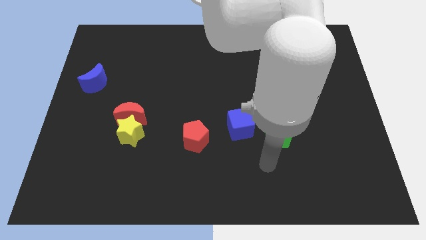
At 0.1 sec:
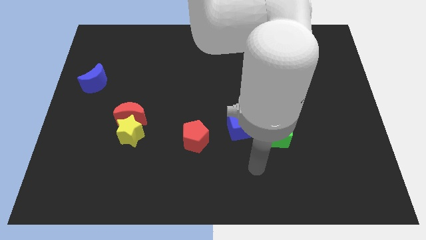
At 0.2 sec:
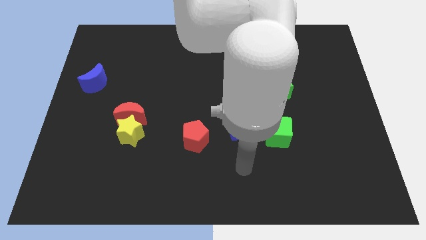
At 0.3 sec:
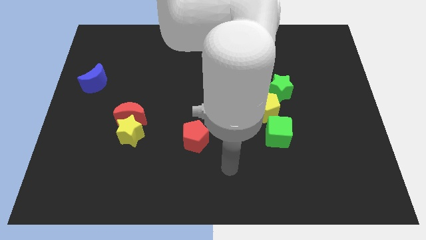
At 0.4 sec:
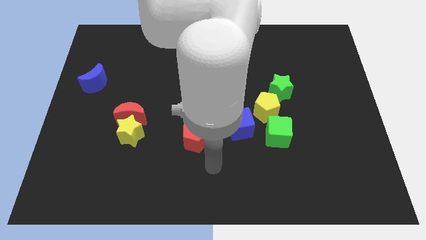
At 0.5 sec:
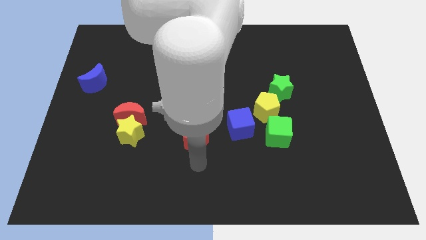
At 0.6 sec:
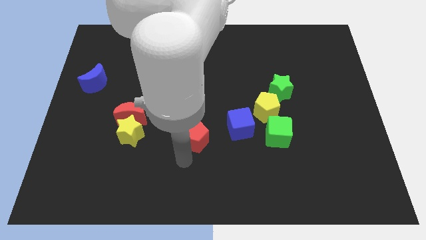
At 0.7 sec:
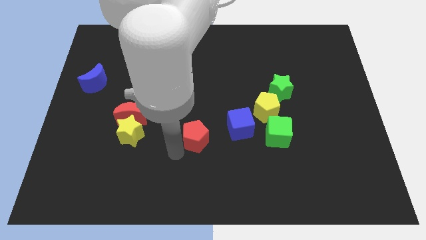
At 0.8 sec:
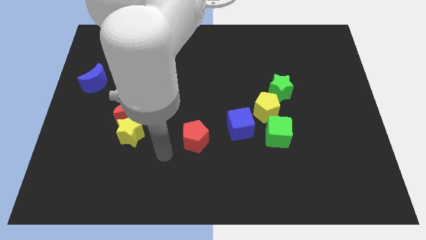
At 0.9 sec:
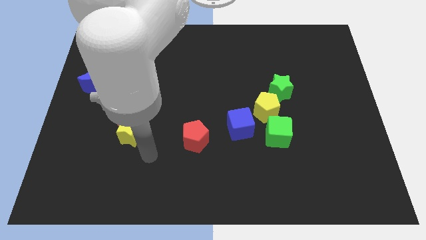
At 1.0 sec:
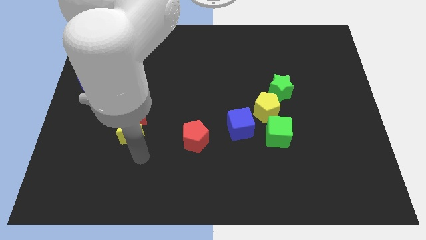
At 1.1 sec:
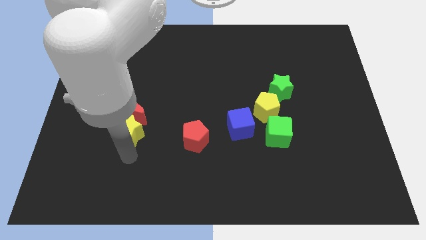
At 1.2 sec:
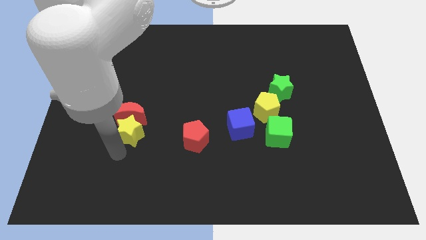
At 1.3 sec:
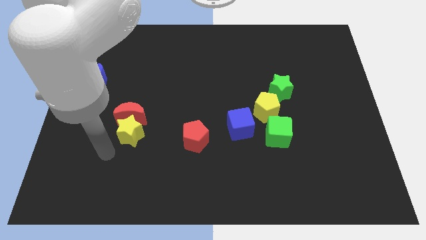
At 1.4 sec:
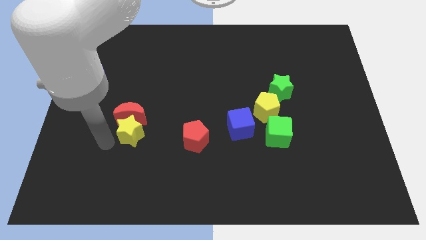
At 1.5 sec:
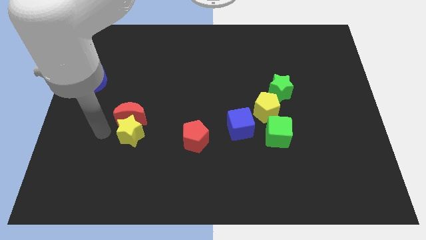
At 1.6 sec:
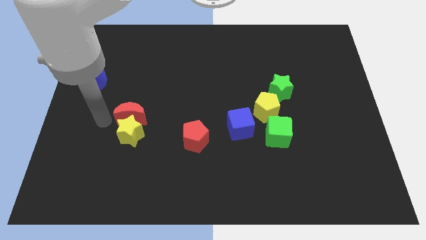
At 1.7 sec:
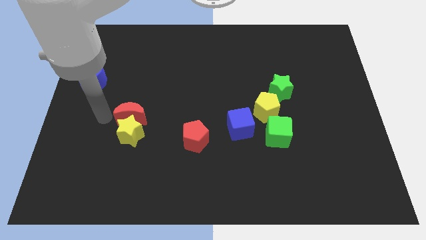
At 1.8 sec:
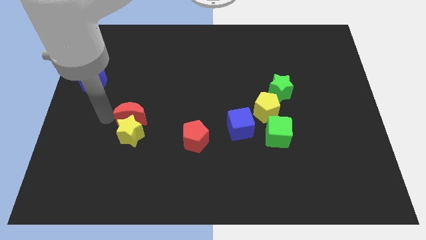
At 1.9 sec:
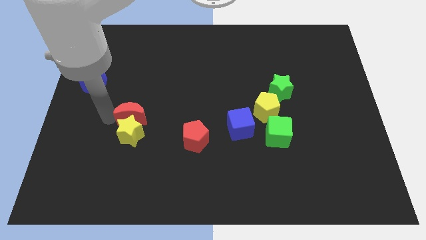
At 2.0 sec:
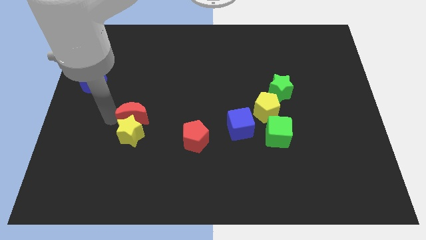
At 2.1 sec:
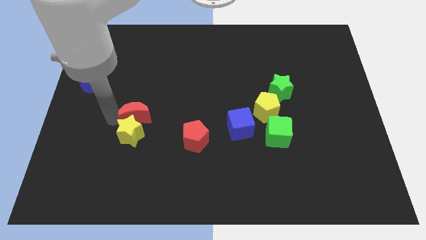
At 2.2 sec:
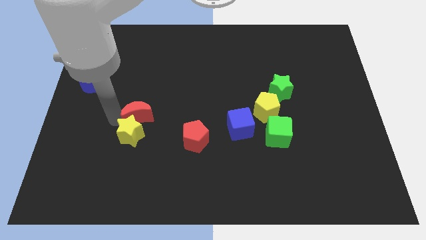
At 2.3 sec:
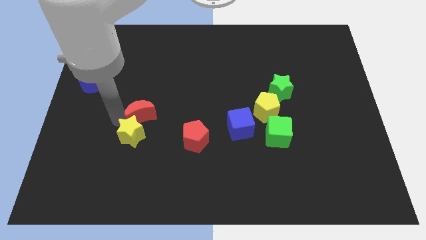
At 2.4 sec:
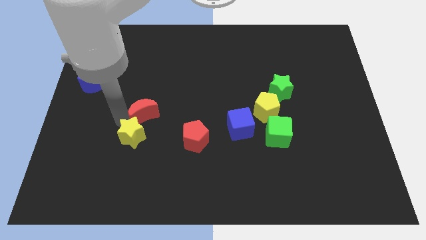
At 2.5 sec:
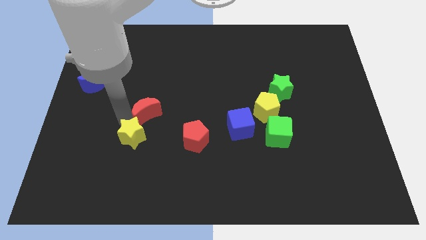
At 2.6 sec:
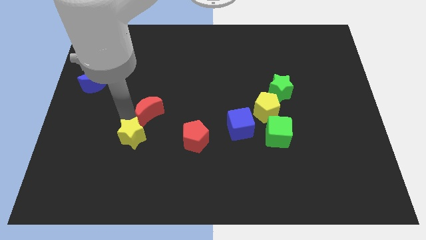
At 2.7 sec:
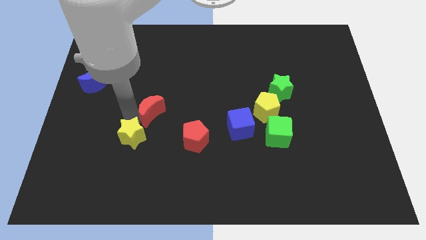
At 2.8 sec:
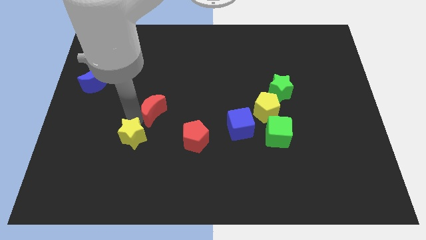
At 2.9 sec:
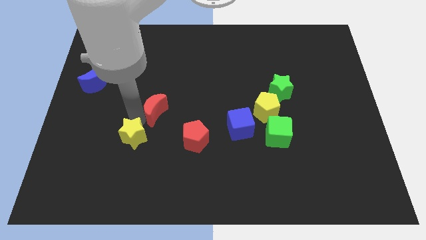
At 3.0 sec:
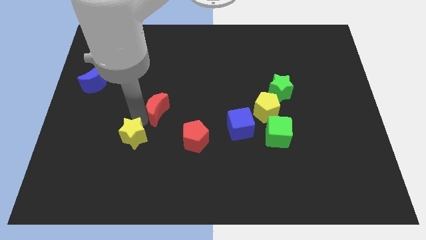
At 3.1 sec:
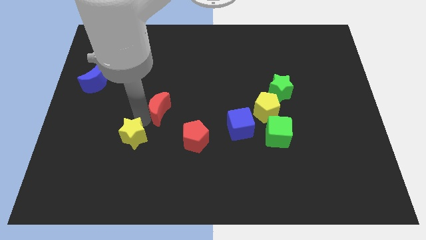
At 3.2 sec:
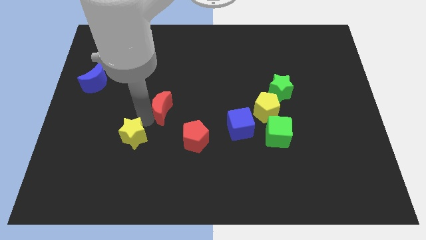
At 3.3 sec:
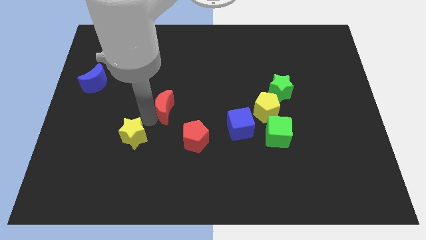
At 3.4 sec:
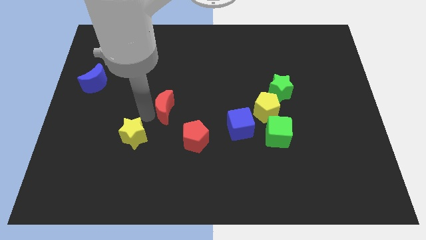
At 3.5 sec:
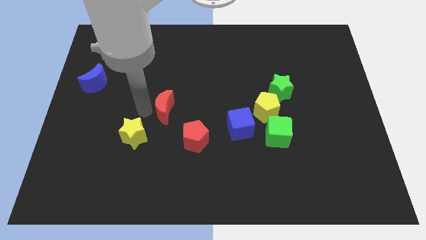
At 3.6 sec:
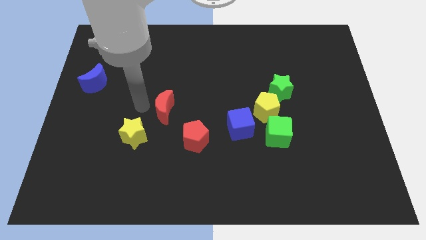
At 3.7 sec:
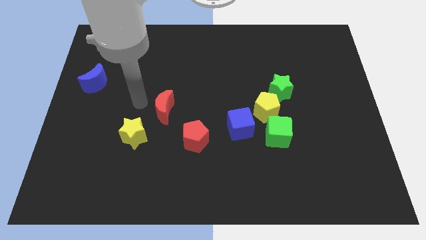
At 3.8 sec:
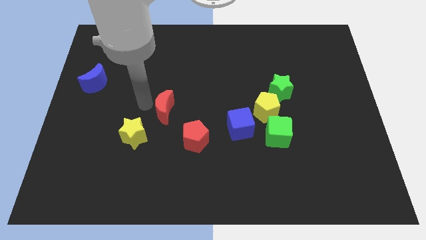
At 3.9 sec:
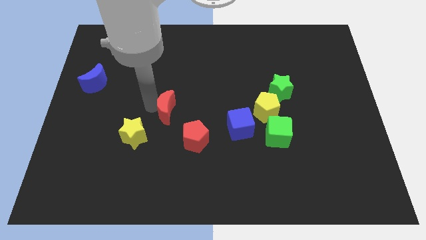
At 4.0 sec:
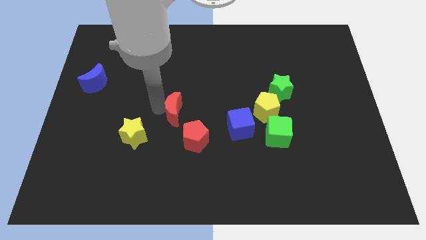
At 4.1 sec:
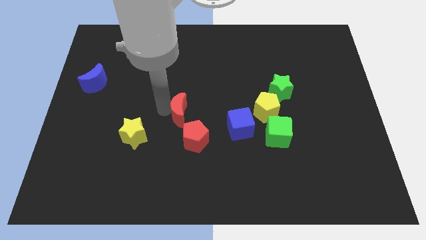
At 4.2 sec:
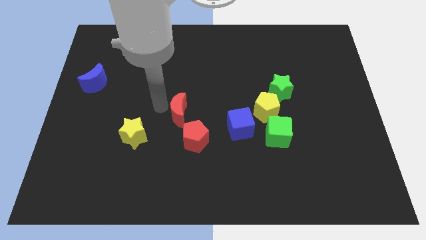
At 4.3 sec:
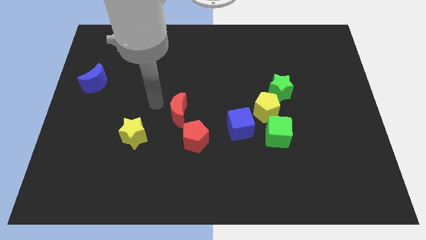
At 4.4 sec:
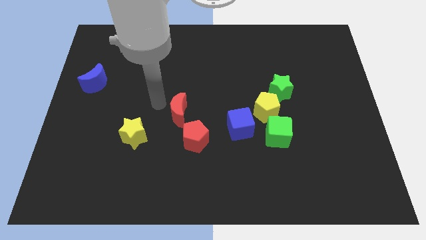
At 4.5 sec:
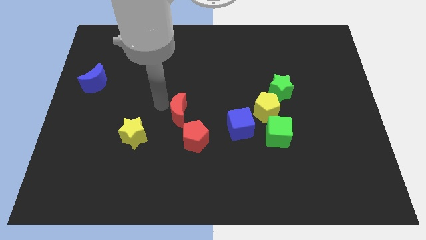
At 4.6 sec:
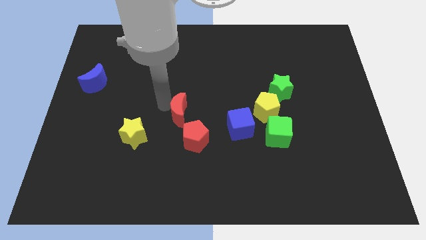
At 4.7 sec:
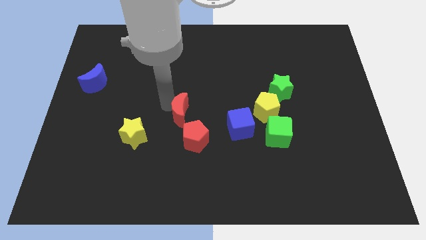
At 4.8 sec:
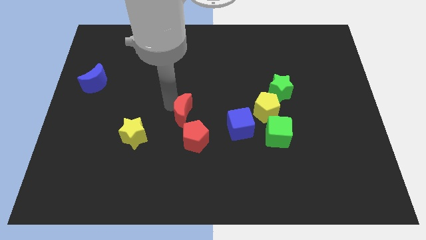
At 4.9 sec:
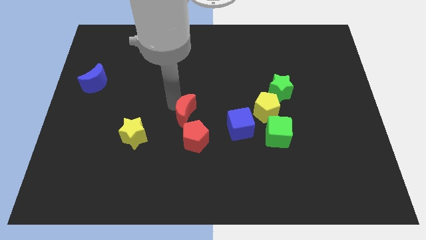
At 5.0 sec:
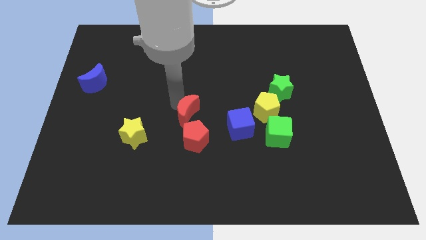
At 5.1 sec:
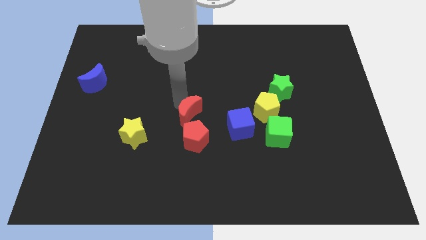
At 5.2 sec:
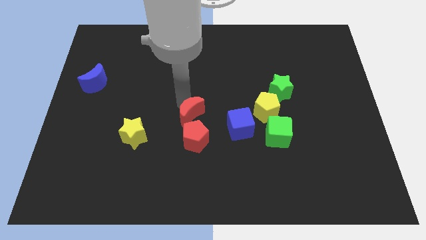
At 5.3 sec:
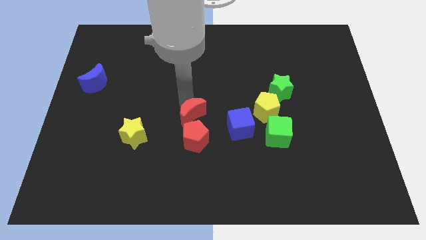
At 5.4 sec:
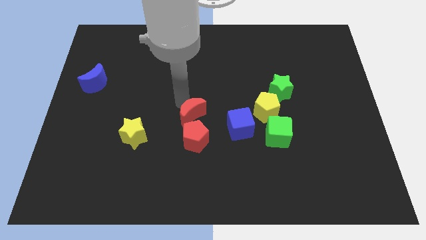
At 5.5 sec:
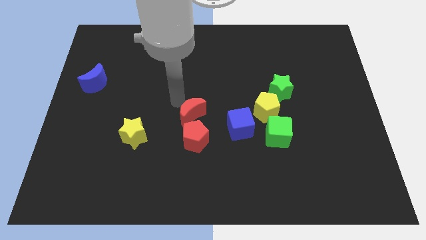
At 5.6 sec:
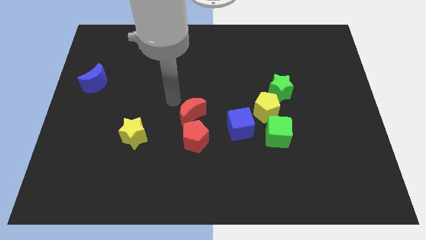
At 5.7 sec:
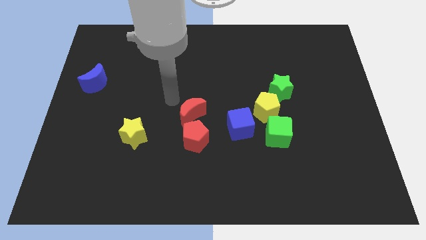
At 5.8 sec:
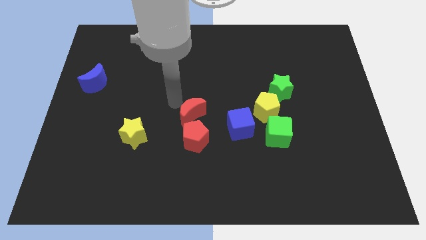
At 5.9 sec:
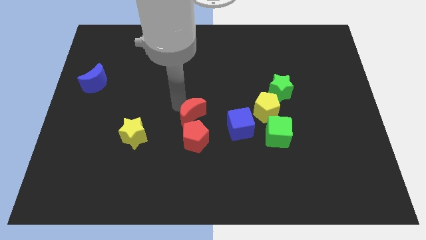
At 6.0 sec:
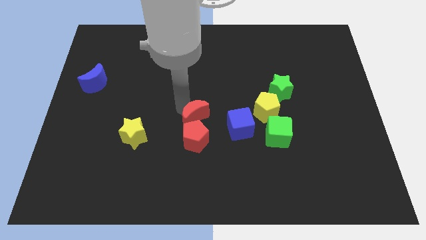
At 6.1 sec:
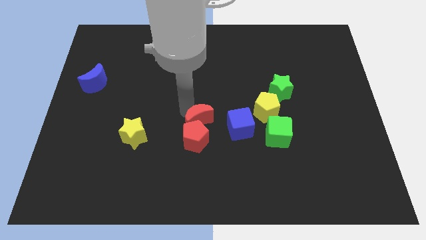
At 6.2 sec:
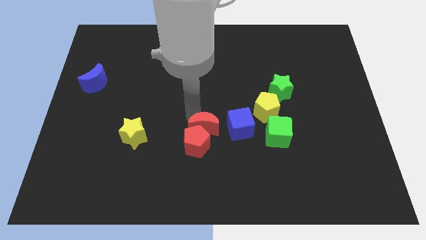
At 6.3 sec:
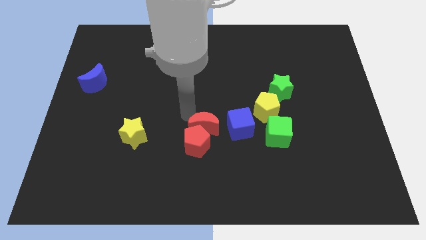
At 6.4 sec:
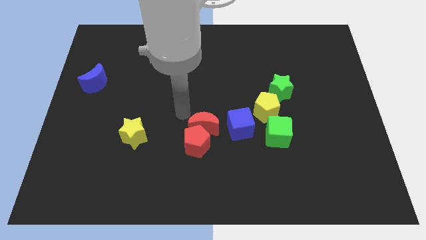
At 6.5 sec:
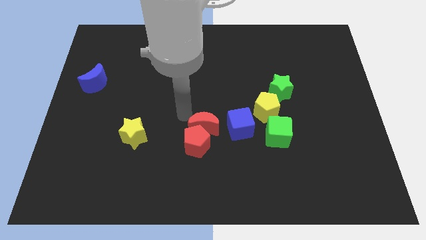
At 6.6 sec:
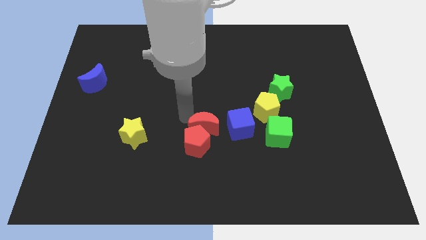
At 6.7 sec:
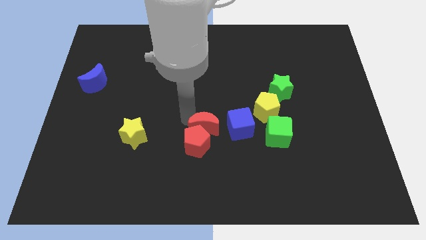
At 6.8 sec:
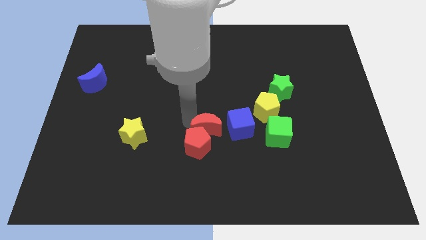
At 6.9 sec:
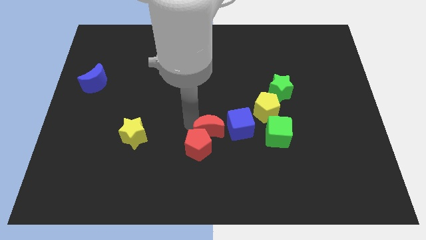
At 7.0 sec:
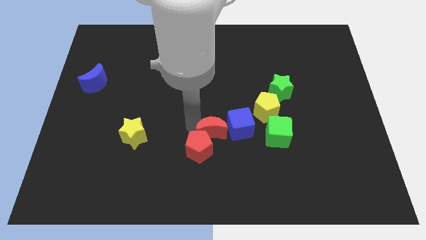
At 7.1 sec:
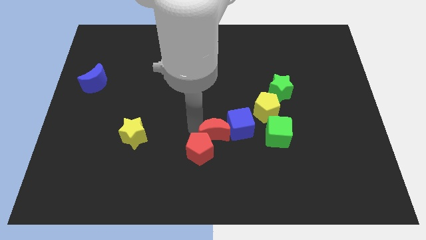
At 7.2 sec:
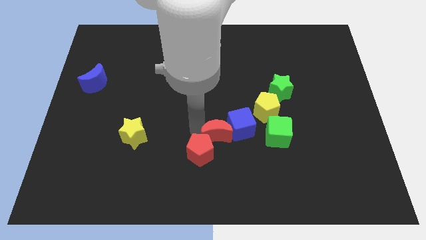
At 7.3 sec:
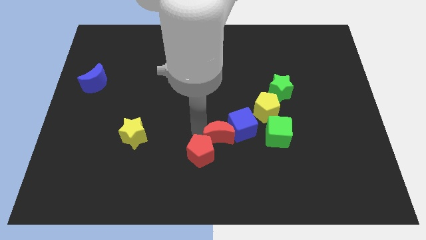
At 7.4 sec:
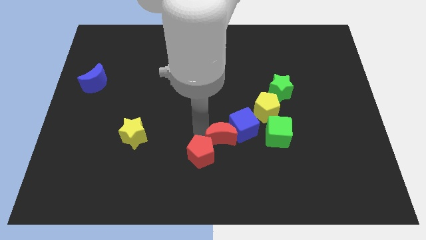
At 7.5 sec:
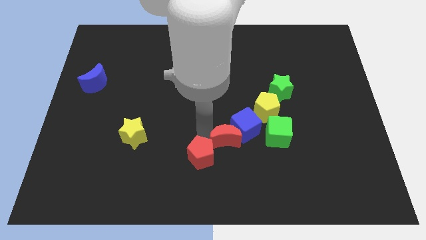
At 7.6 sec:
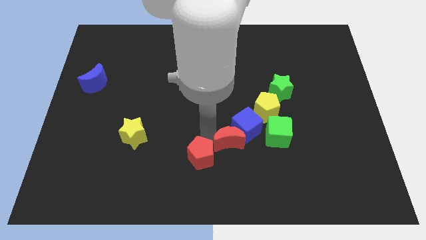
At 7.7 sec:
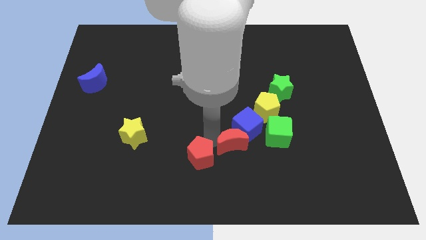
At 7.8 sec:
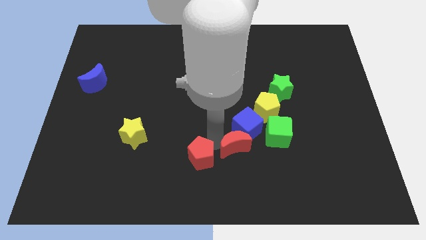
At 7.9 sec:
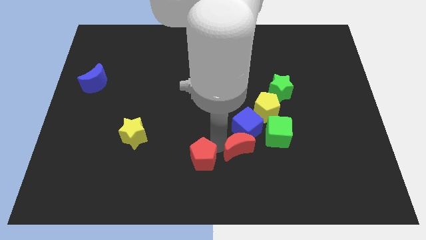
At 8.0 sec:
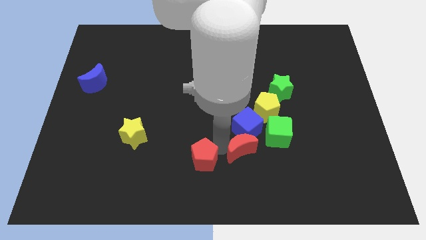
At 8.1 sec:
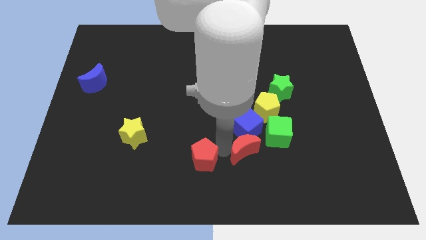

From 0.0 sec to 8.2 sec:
push the red moon diagonally down and to the right of the blue cube
